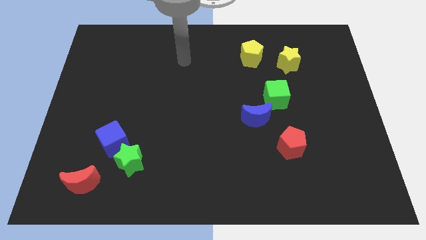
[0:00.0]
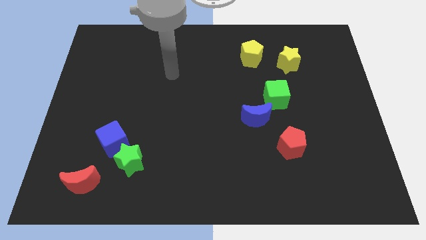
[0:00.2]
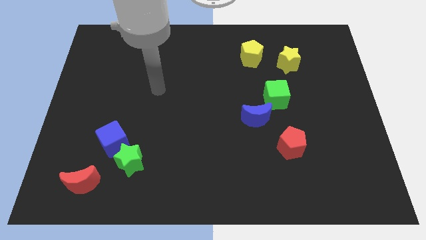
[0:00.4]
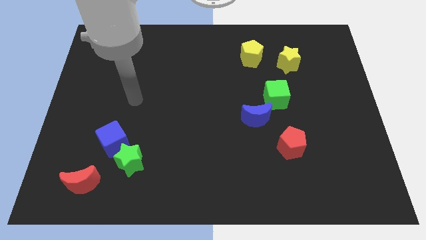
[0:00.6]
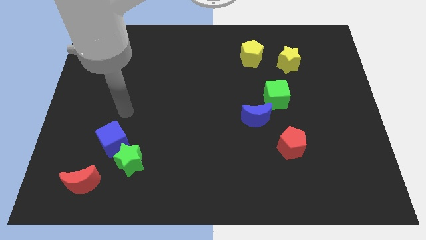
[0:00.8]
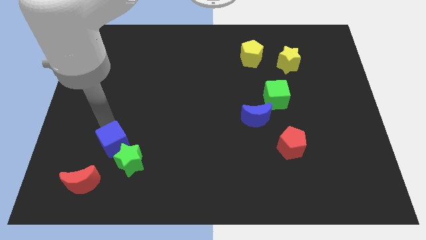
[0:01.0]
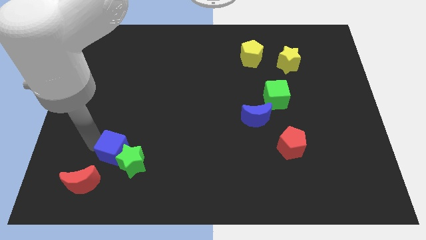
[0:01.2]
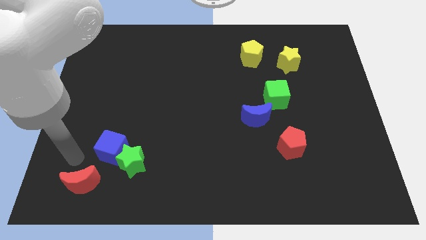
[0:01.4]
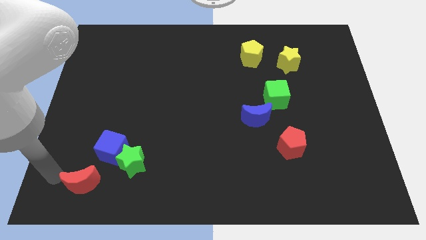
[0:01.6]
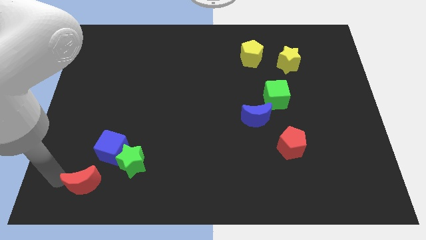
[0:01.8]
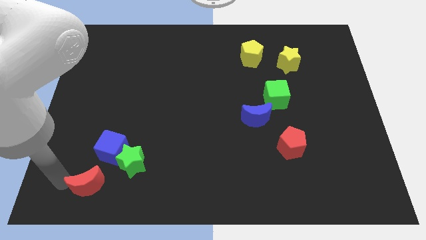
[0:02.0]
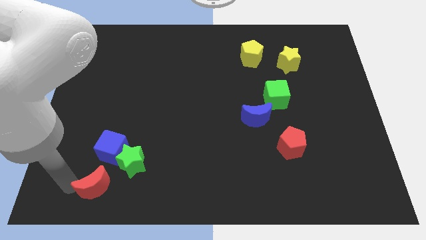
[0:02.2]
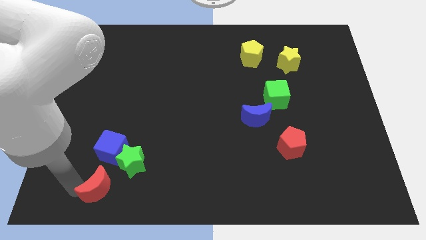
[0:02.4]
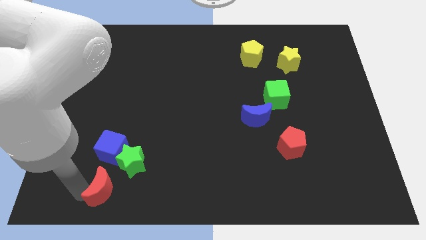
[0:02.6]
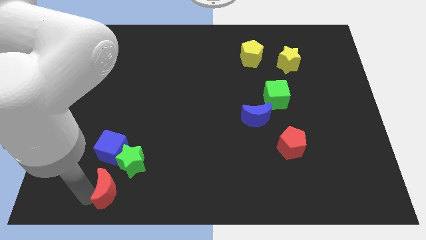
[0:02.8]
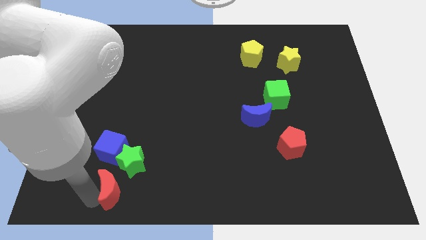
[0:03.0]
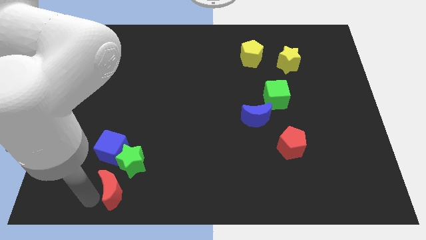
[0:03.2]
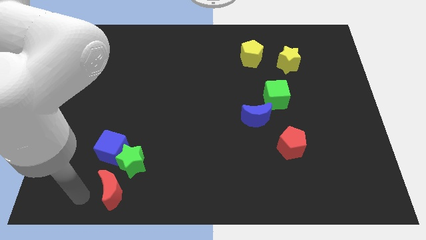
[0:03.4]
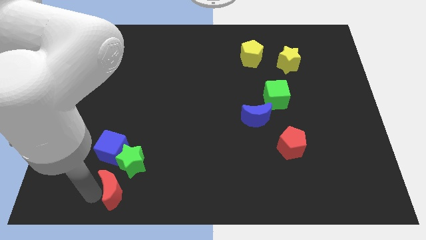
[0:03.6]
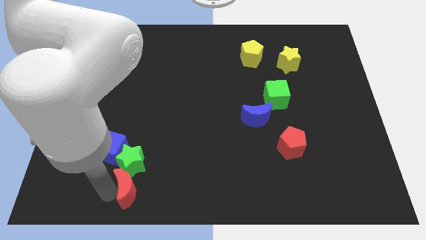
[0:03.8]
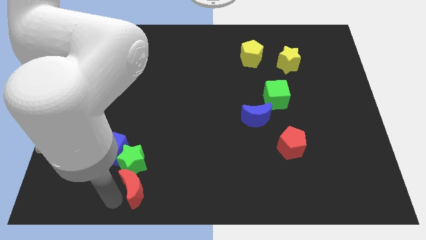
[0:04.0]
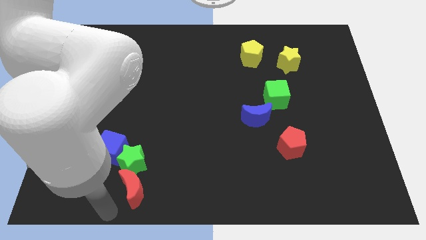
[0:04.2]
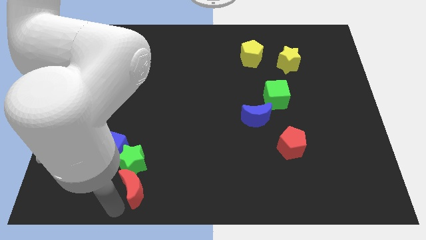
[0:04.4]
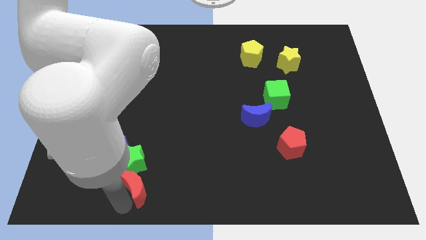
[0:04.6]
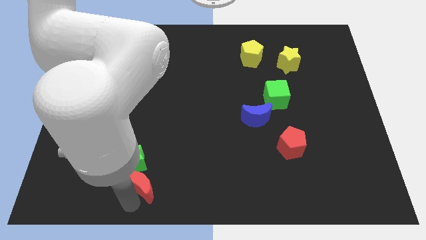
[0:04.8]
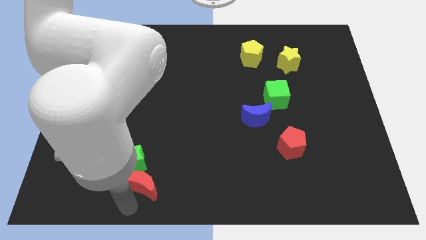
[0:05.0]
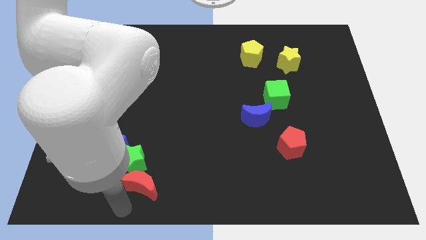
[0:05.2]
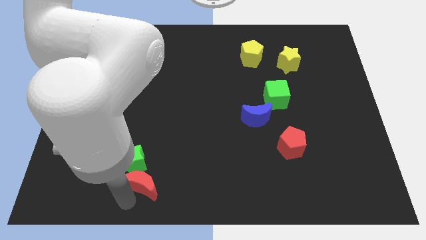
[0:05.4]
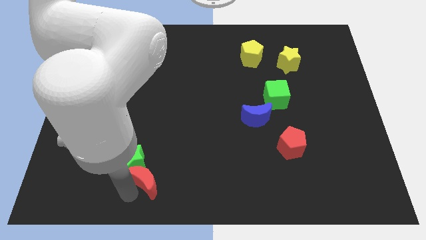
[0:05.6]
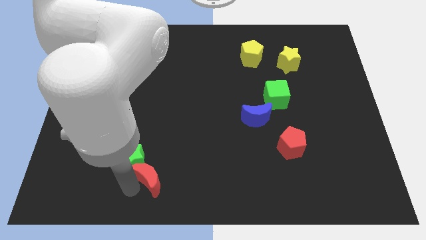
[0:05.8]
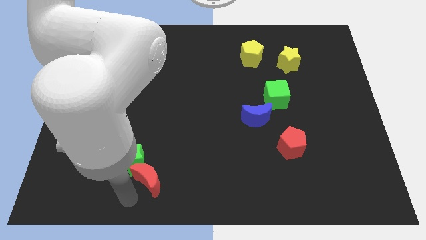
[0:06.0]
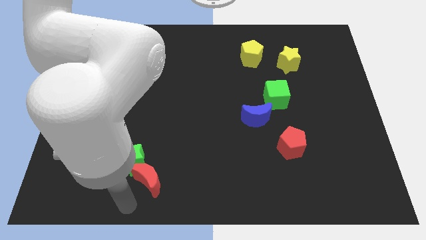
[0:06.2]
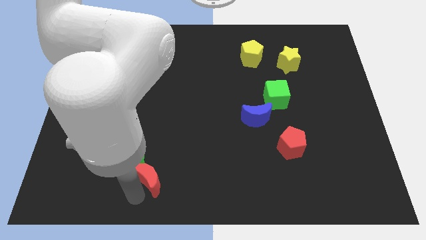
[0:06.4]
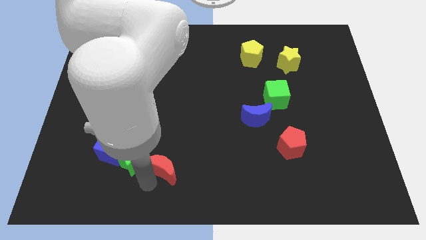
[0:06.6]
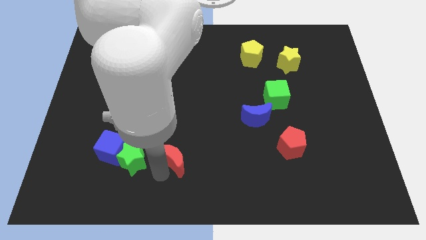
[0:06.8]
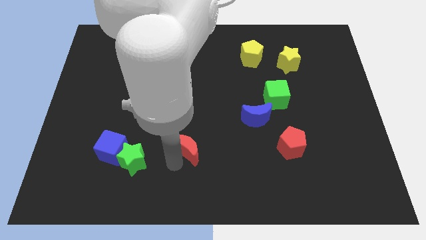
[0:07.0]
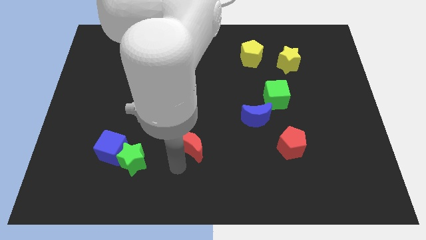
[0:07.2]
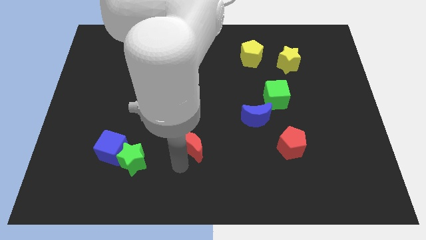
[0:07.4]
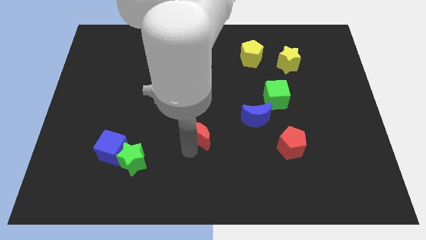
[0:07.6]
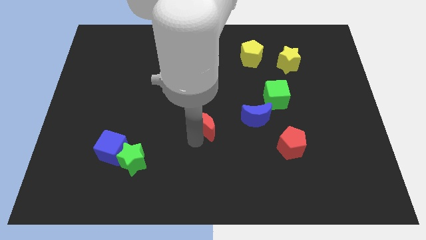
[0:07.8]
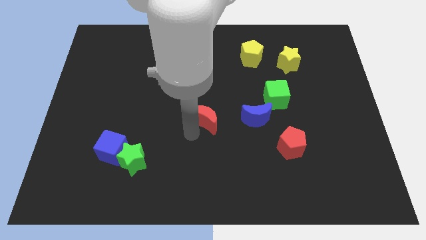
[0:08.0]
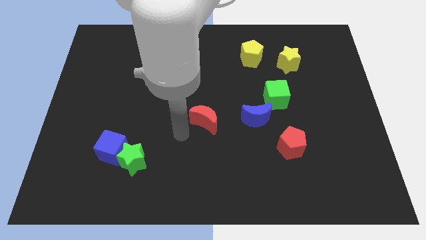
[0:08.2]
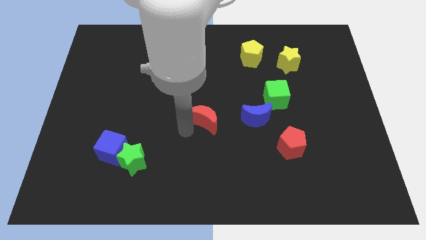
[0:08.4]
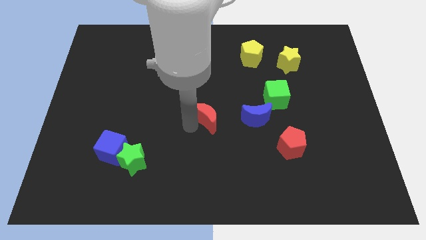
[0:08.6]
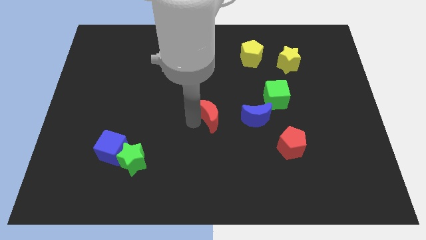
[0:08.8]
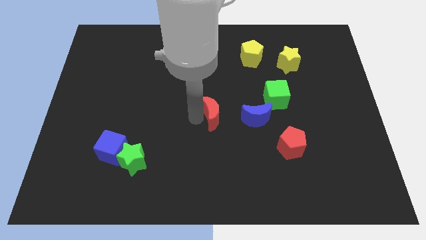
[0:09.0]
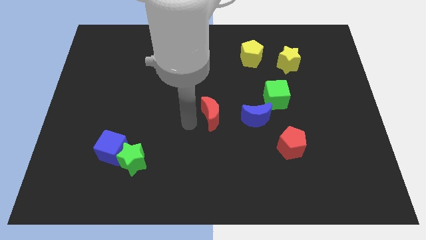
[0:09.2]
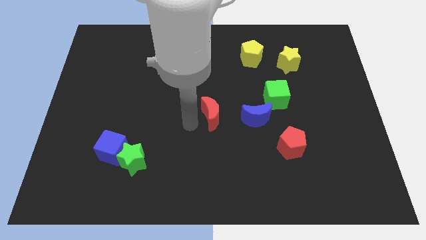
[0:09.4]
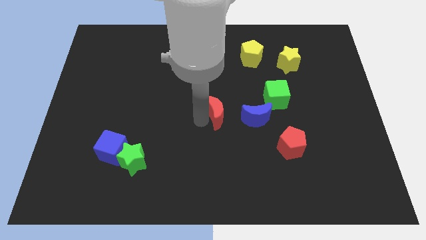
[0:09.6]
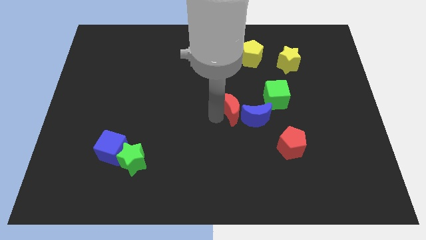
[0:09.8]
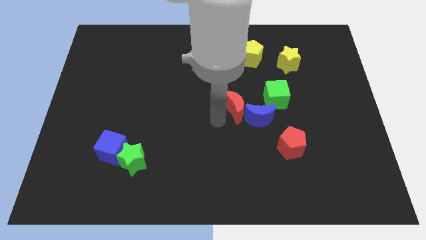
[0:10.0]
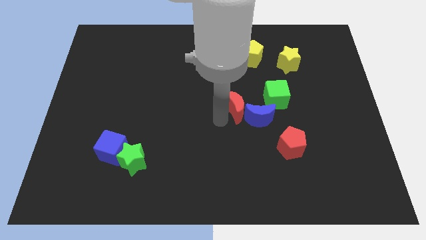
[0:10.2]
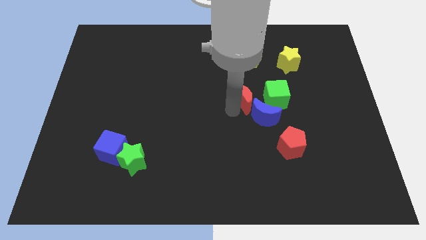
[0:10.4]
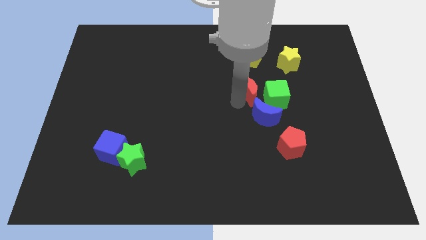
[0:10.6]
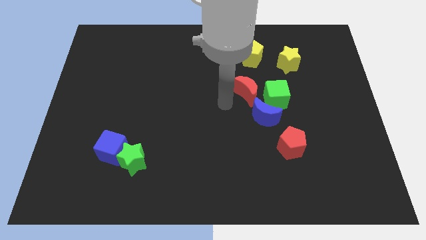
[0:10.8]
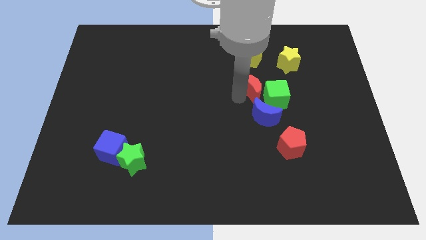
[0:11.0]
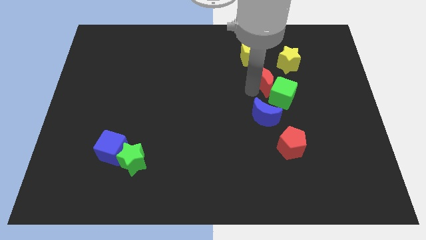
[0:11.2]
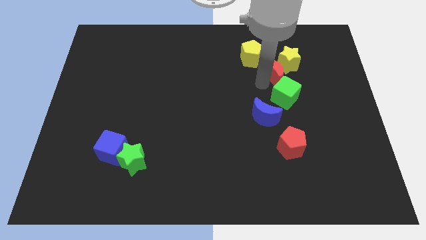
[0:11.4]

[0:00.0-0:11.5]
push the red moon towards the yellow star

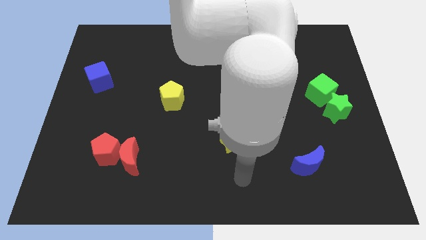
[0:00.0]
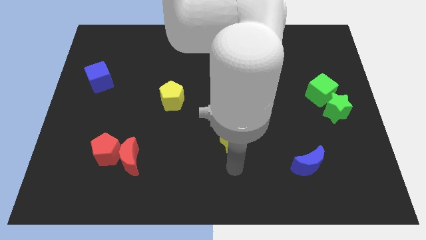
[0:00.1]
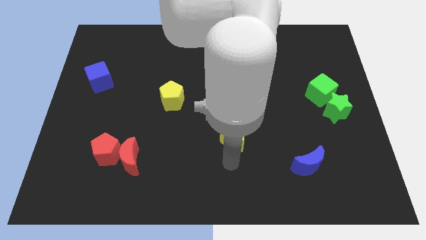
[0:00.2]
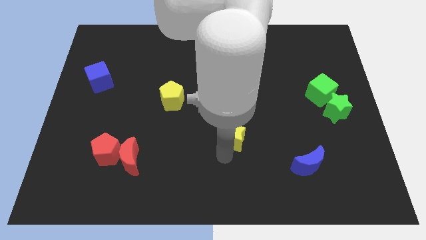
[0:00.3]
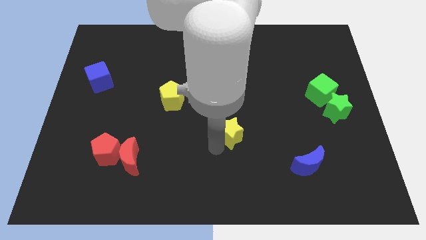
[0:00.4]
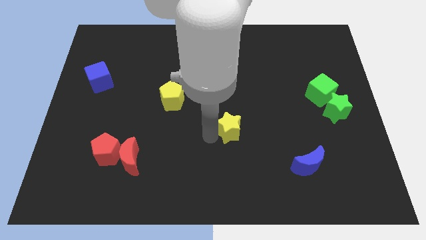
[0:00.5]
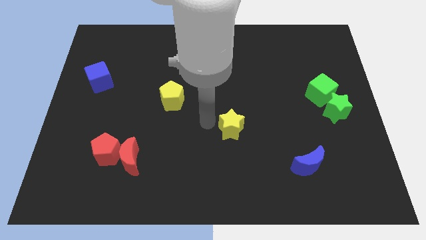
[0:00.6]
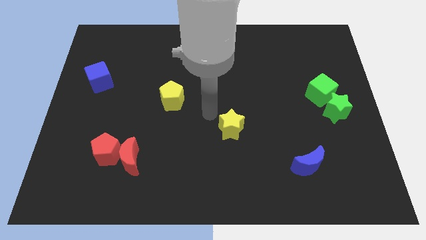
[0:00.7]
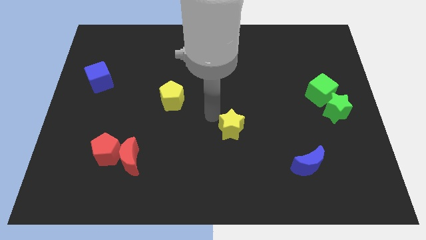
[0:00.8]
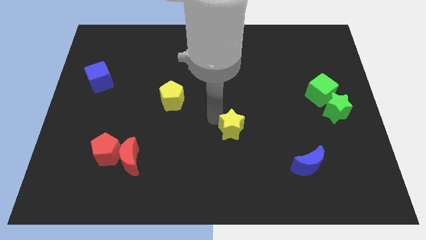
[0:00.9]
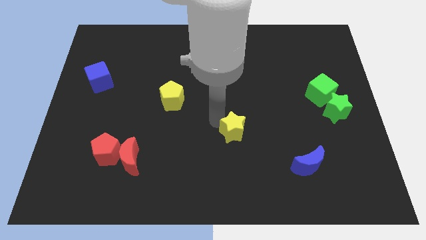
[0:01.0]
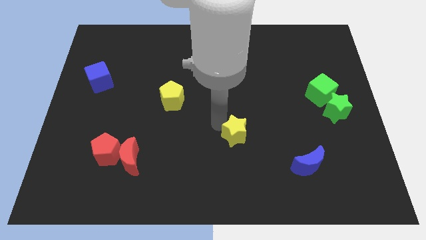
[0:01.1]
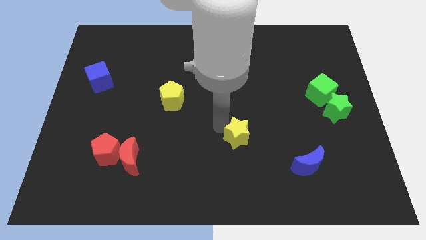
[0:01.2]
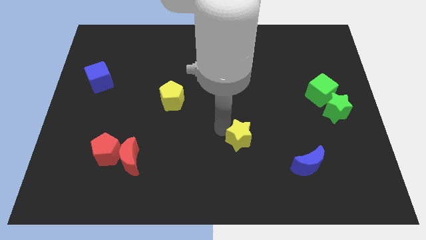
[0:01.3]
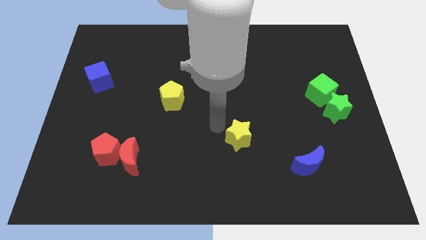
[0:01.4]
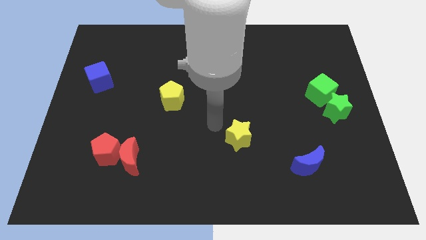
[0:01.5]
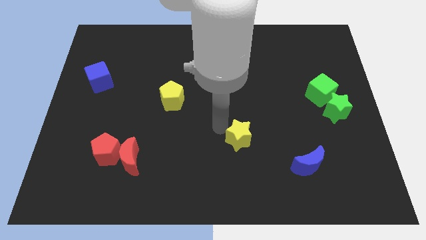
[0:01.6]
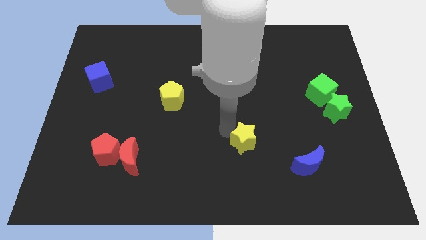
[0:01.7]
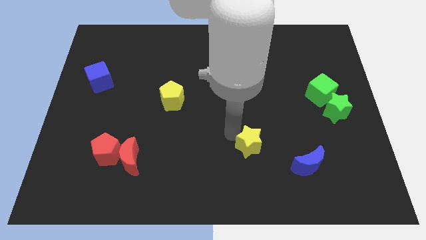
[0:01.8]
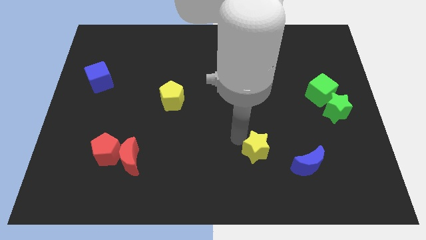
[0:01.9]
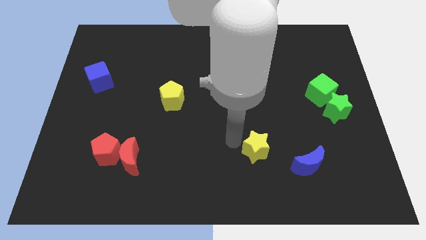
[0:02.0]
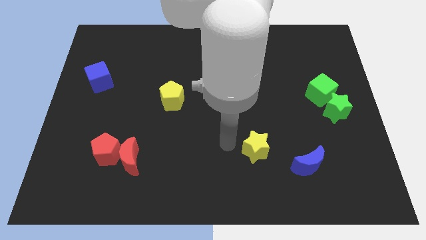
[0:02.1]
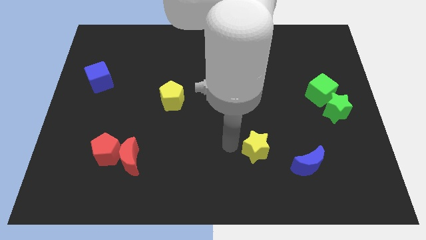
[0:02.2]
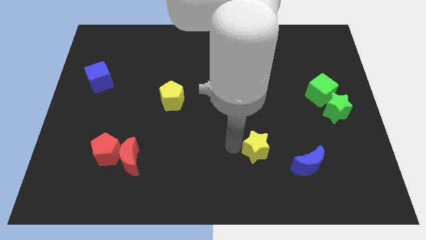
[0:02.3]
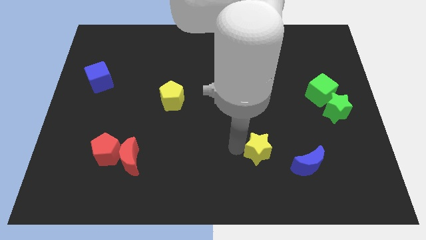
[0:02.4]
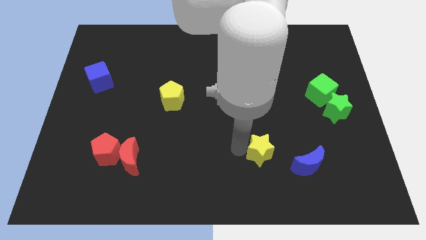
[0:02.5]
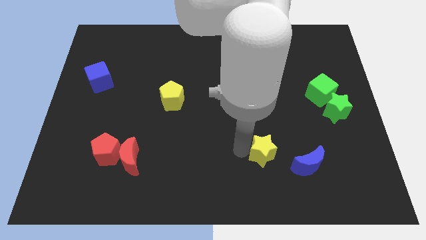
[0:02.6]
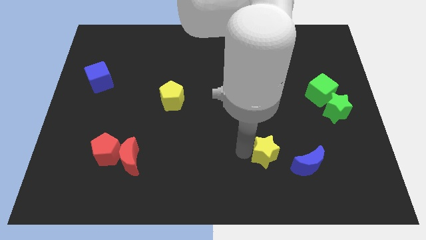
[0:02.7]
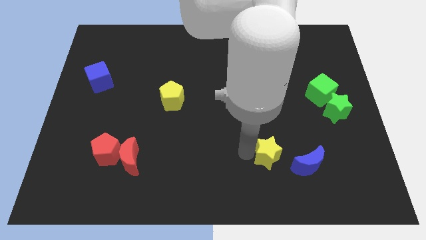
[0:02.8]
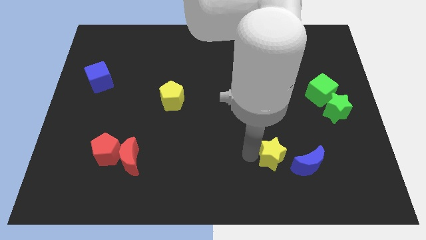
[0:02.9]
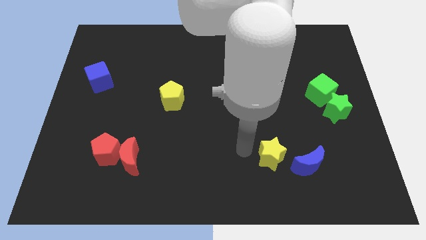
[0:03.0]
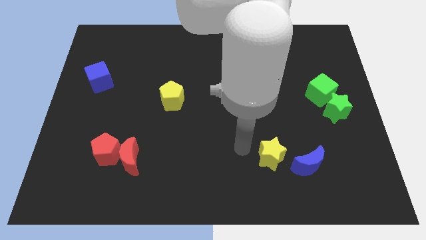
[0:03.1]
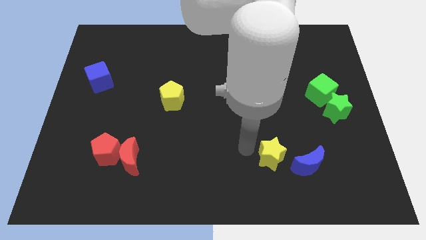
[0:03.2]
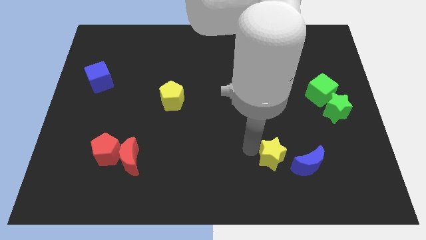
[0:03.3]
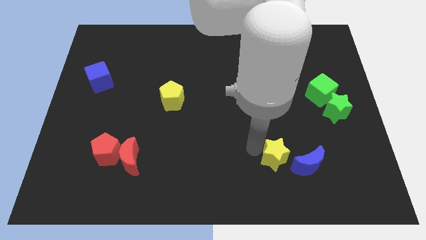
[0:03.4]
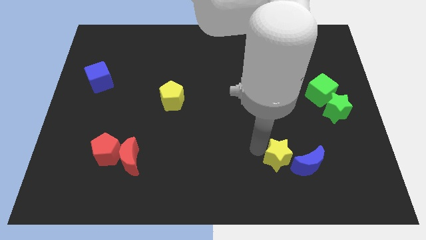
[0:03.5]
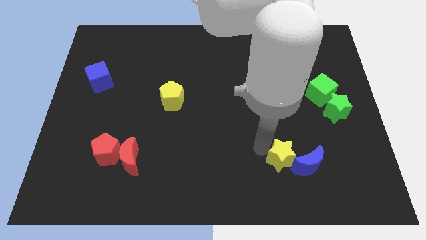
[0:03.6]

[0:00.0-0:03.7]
put the yellow star to the blue moon
